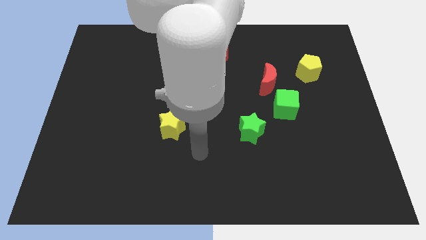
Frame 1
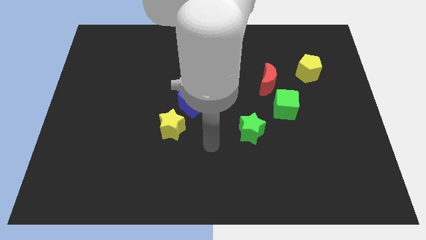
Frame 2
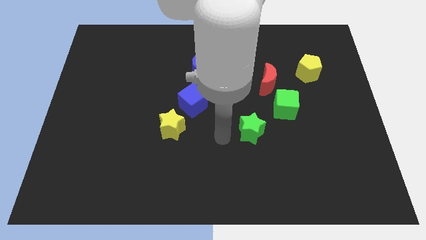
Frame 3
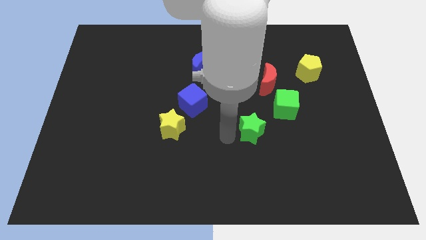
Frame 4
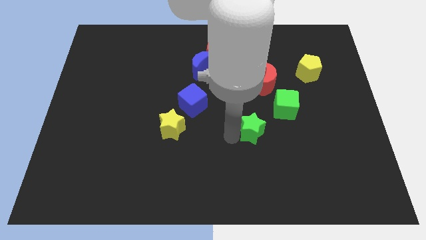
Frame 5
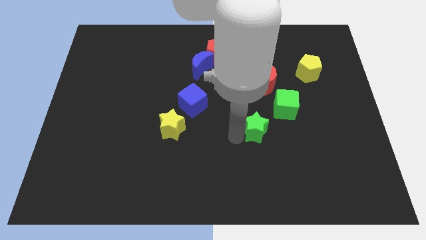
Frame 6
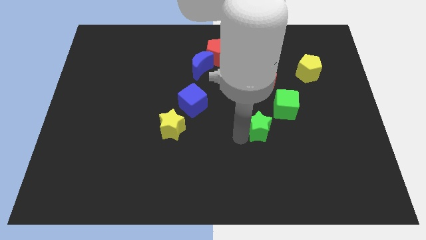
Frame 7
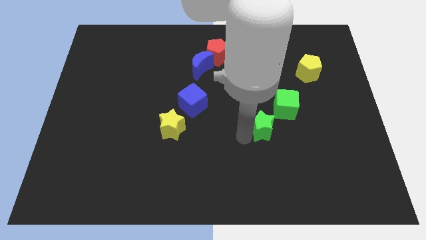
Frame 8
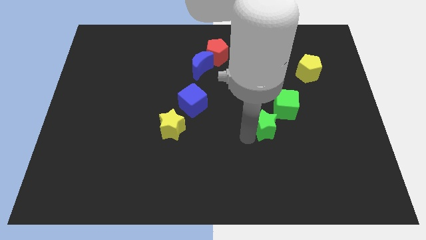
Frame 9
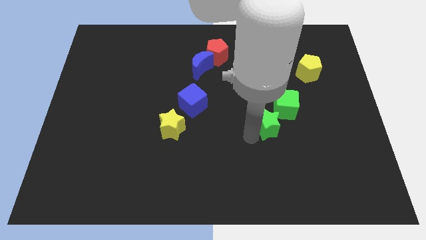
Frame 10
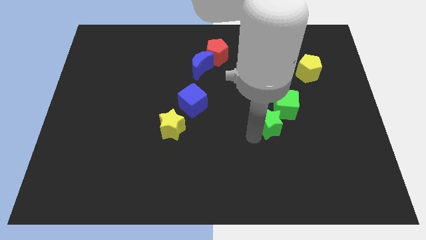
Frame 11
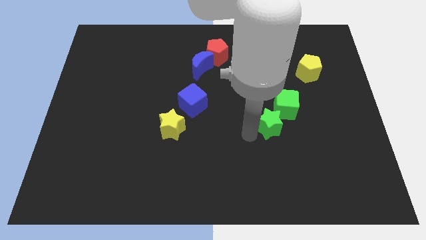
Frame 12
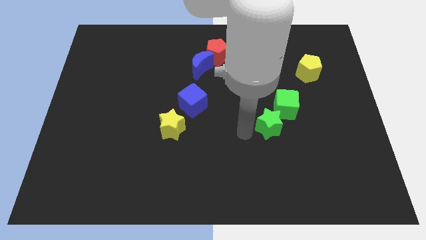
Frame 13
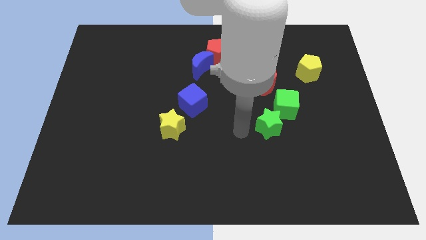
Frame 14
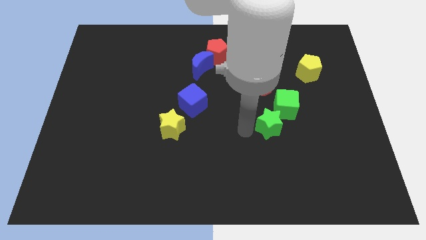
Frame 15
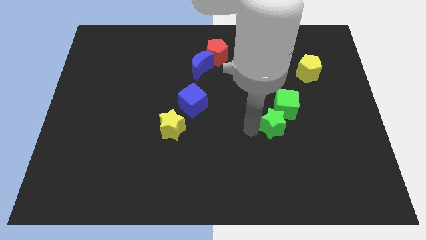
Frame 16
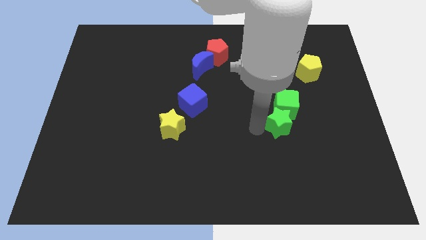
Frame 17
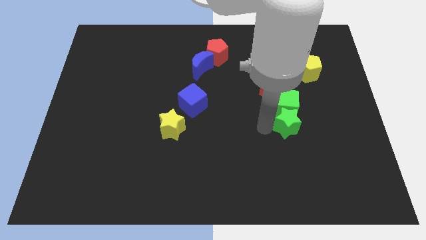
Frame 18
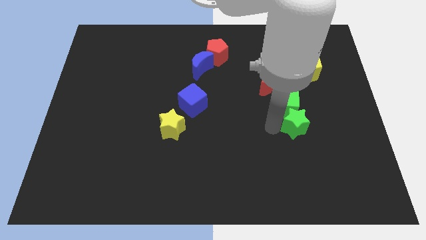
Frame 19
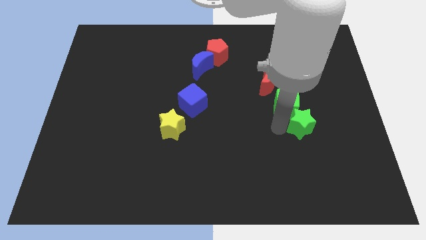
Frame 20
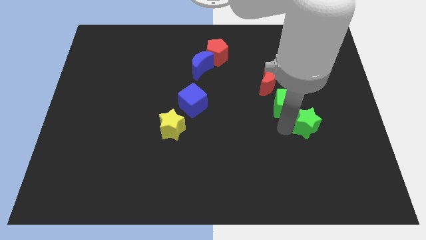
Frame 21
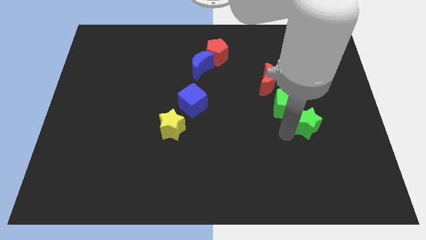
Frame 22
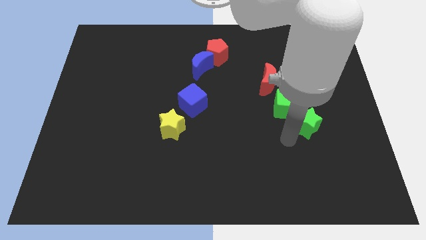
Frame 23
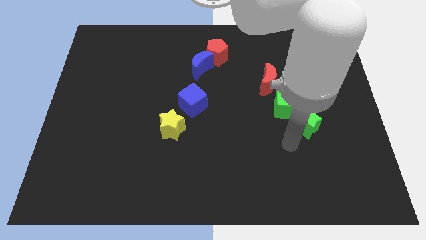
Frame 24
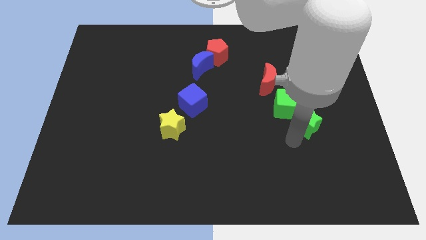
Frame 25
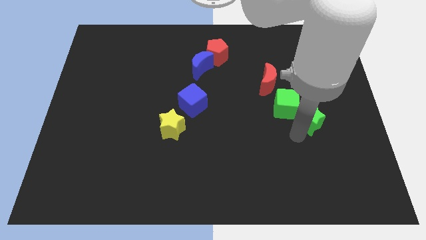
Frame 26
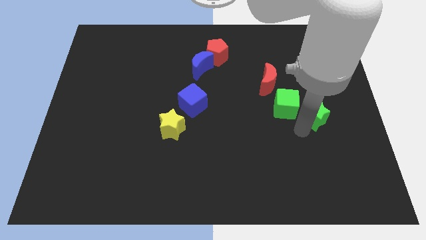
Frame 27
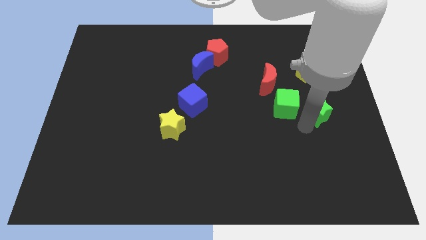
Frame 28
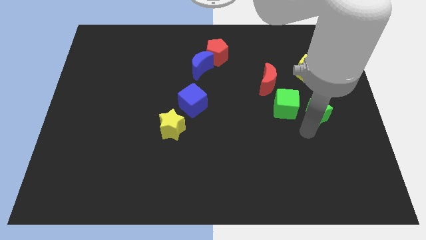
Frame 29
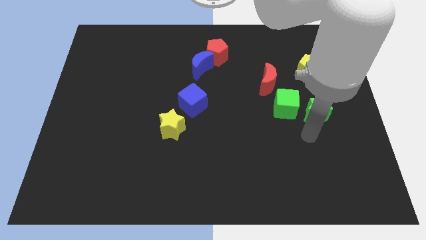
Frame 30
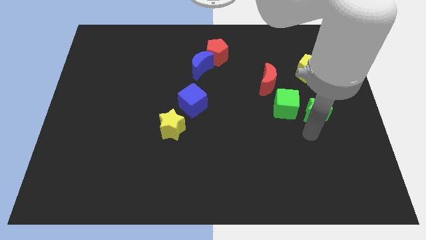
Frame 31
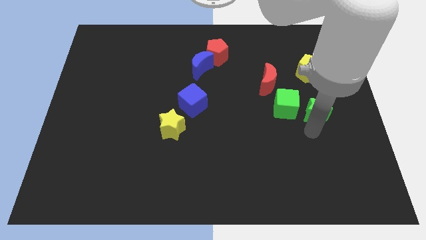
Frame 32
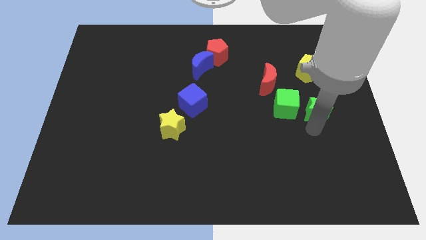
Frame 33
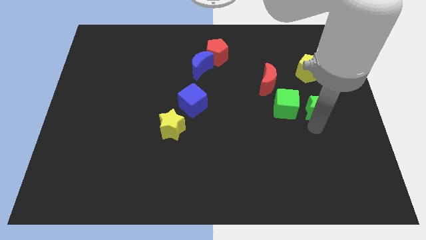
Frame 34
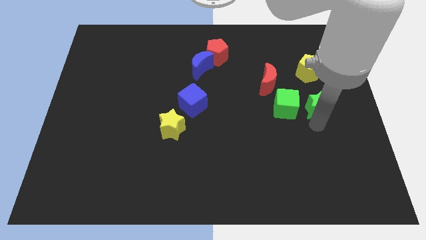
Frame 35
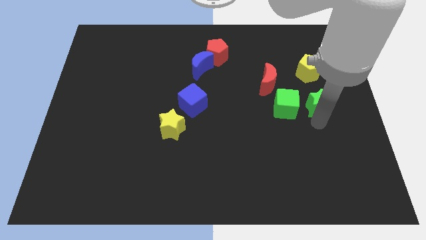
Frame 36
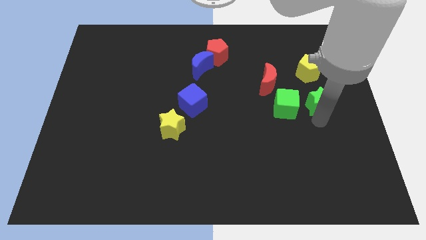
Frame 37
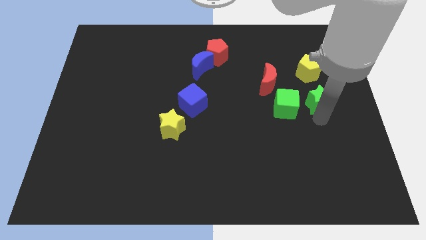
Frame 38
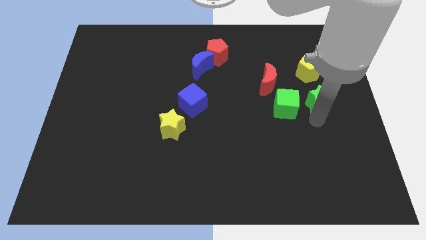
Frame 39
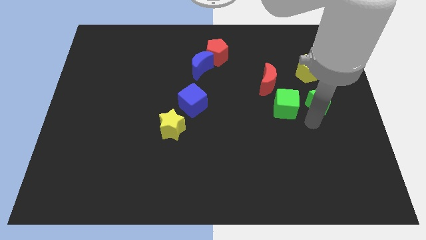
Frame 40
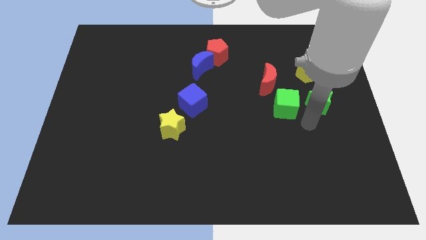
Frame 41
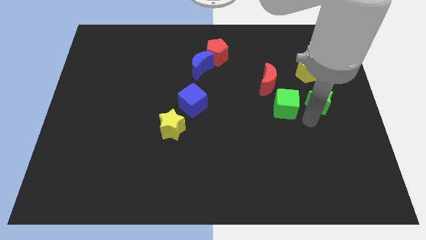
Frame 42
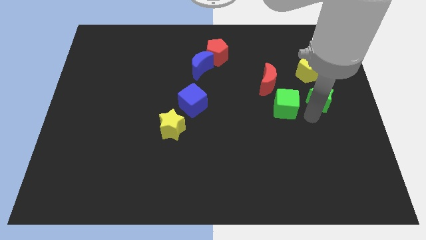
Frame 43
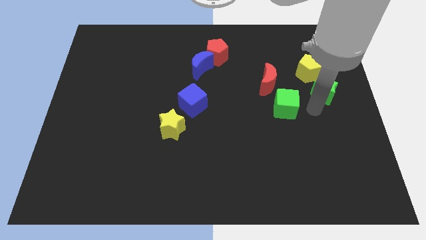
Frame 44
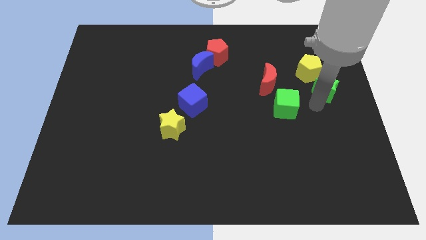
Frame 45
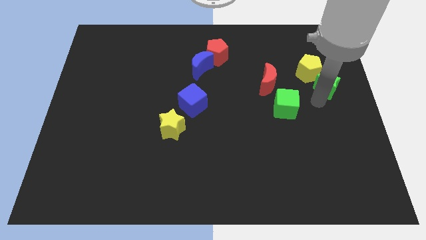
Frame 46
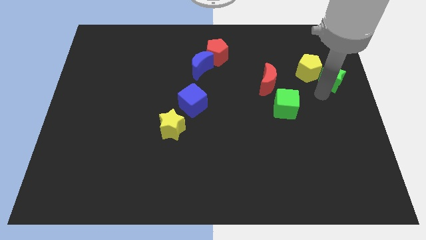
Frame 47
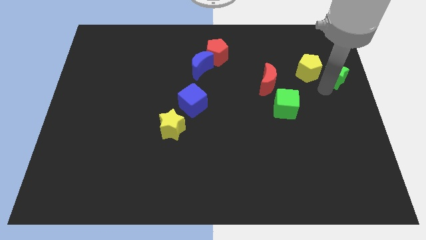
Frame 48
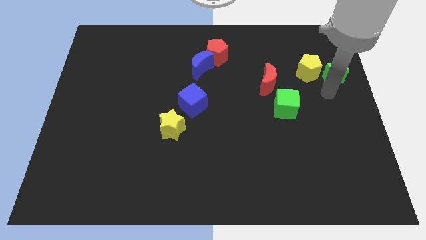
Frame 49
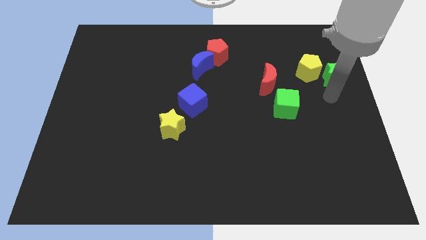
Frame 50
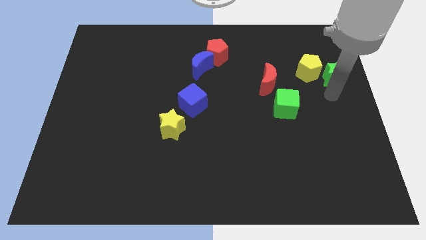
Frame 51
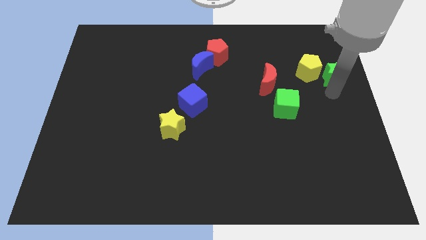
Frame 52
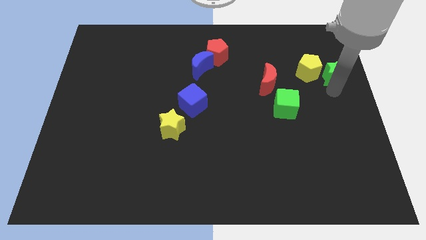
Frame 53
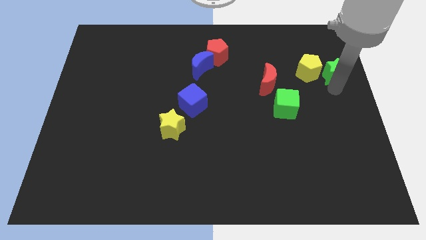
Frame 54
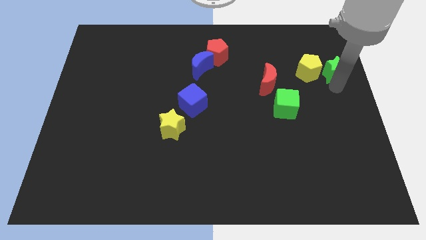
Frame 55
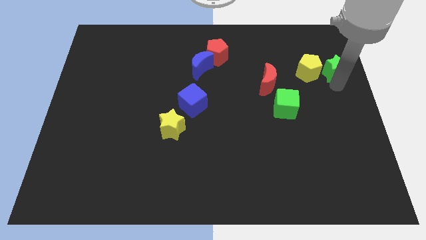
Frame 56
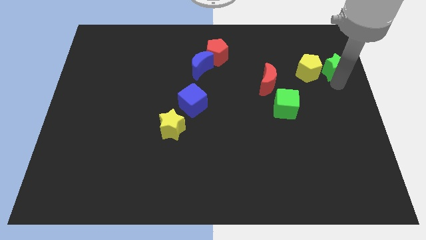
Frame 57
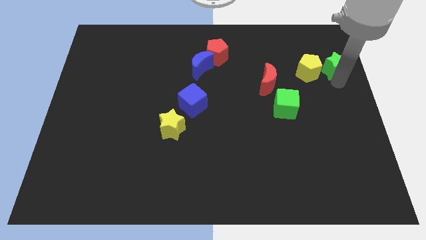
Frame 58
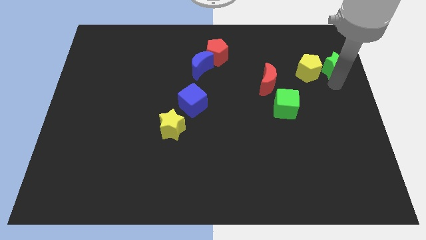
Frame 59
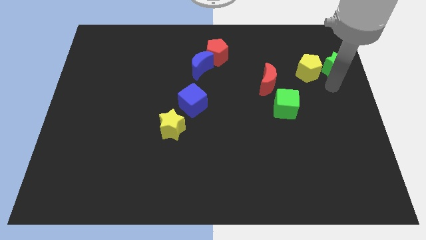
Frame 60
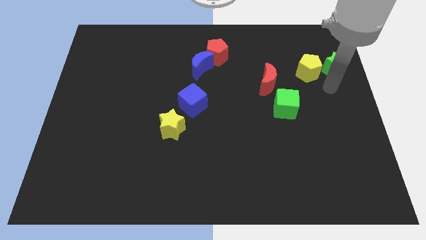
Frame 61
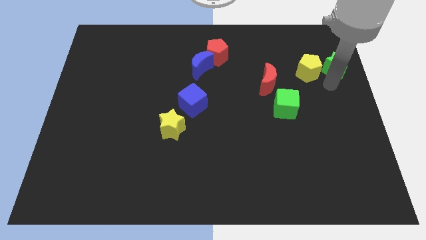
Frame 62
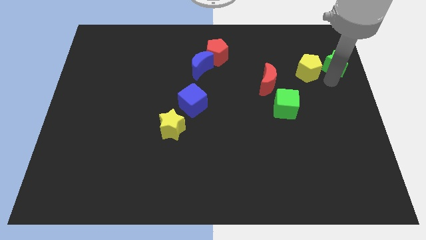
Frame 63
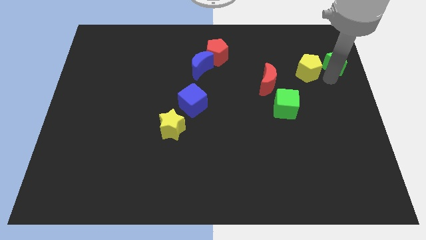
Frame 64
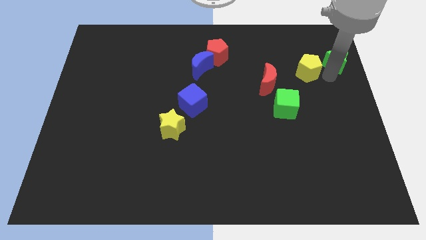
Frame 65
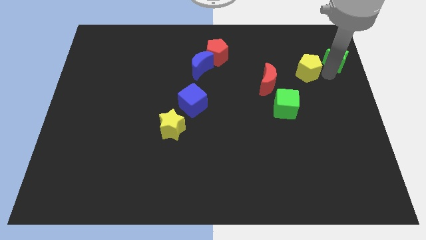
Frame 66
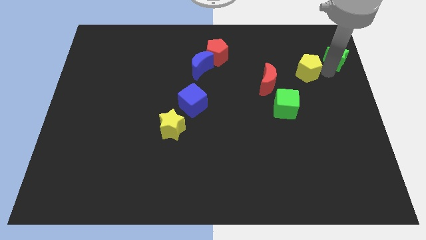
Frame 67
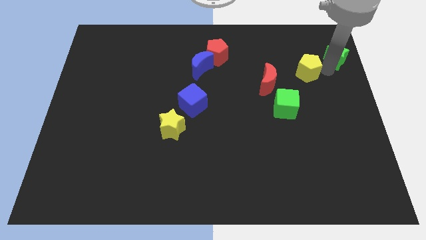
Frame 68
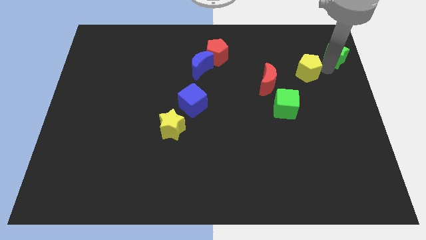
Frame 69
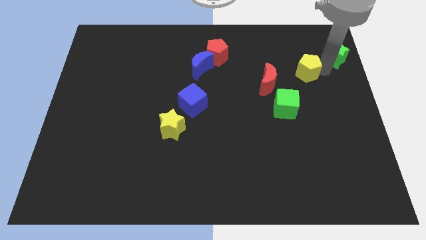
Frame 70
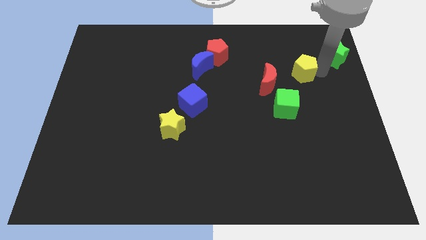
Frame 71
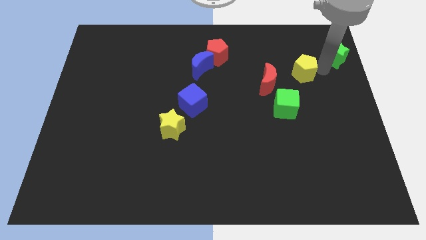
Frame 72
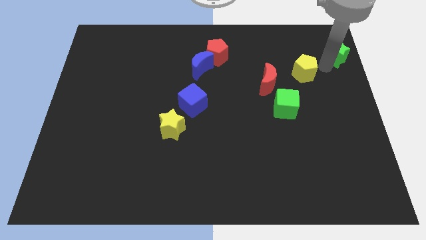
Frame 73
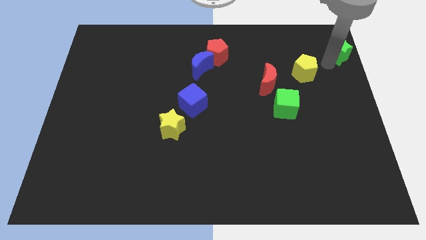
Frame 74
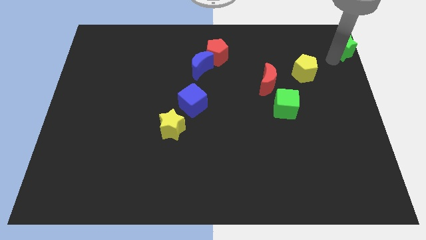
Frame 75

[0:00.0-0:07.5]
push the green star to the top right corner

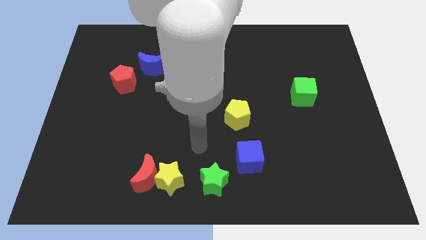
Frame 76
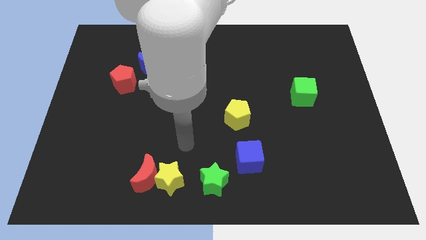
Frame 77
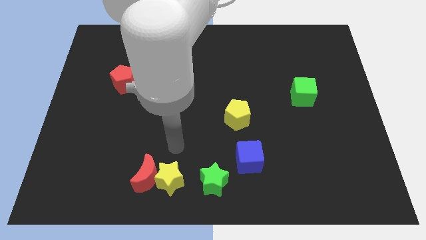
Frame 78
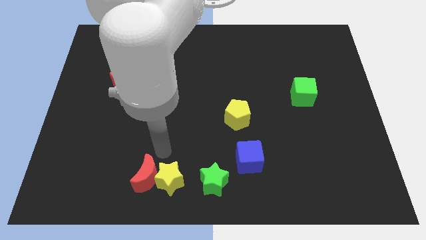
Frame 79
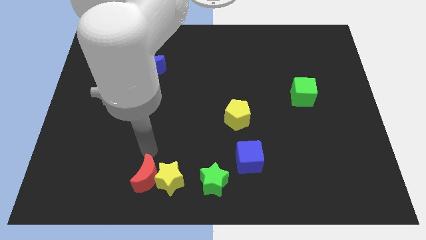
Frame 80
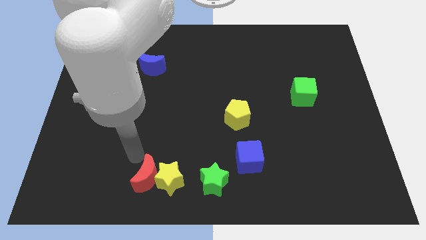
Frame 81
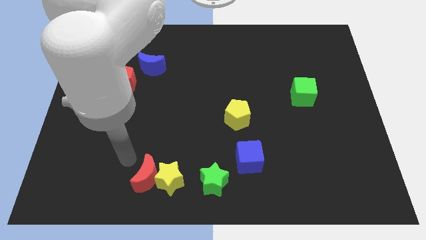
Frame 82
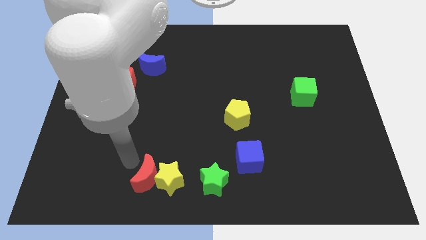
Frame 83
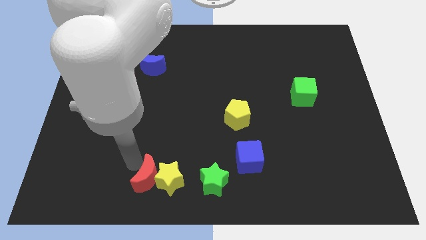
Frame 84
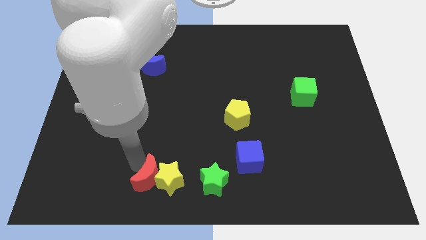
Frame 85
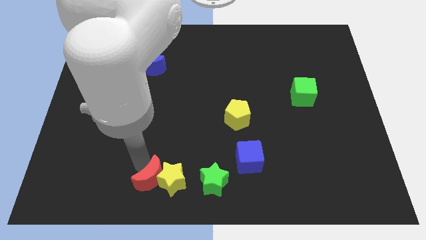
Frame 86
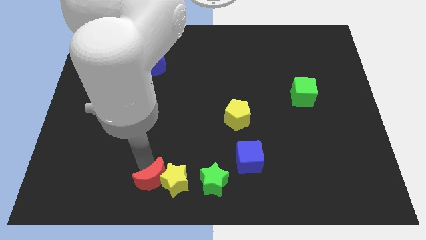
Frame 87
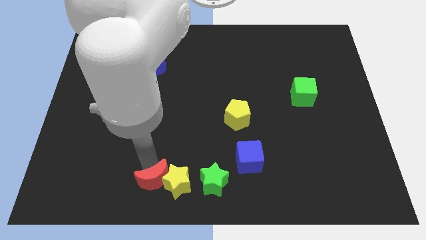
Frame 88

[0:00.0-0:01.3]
move the red moon to the bottom
